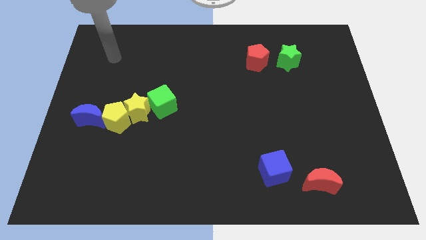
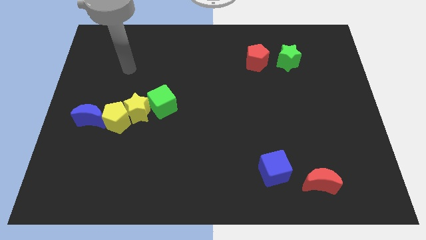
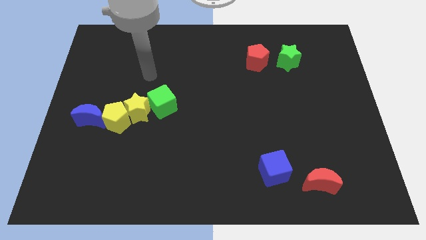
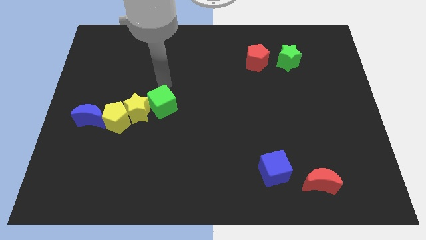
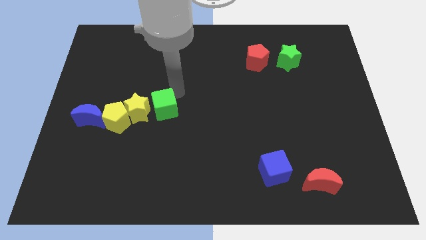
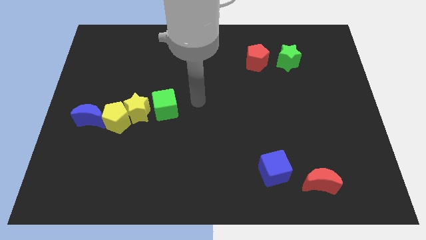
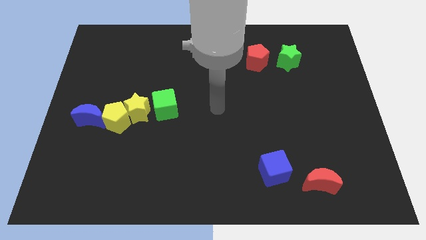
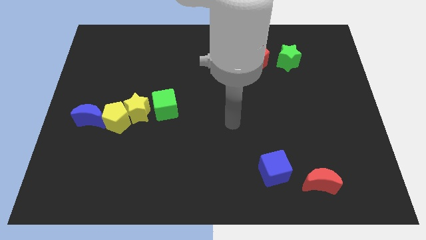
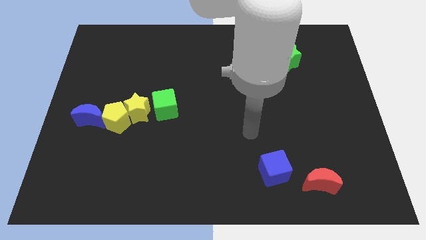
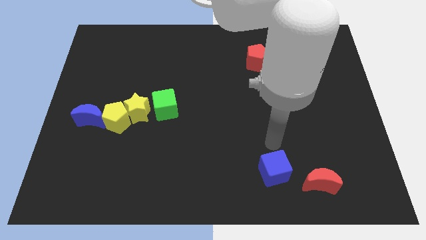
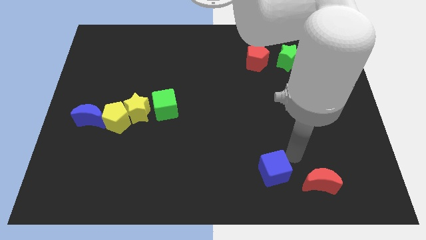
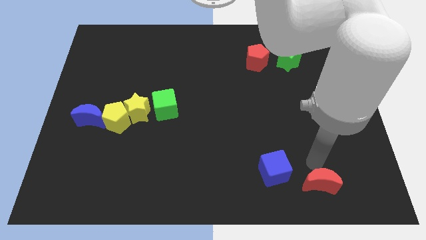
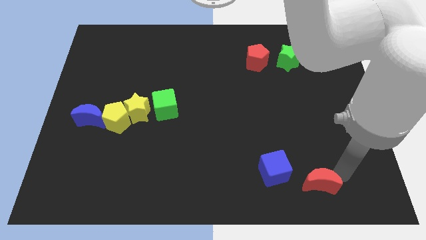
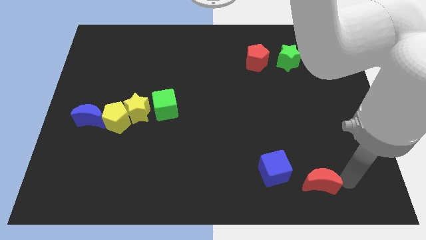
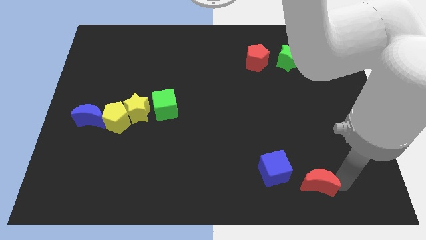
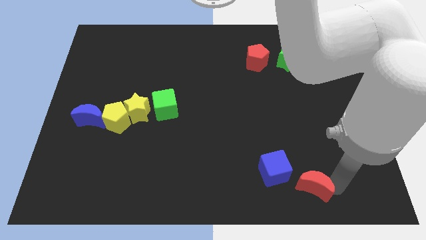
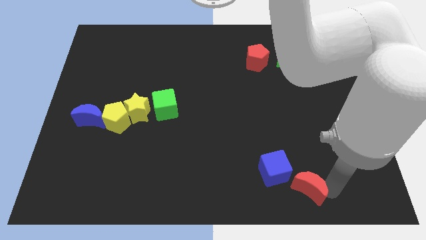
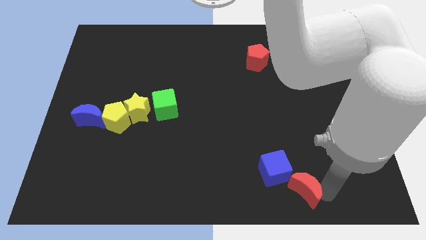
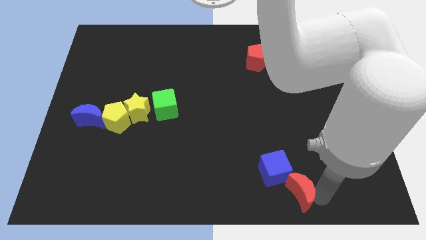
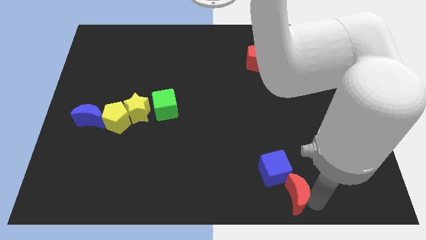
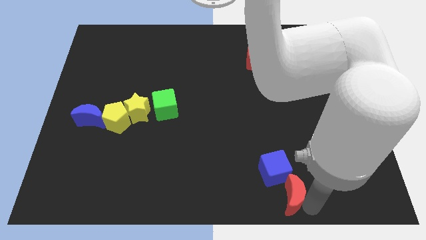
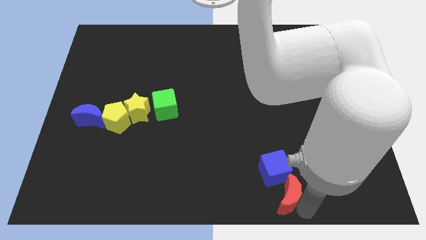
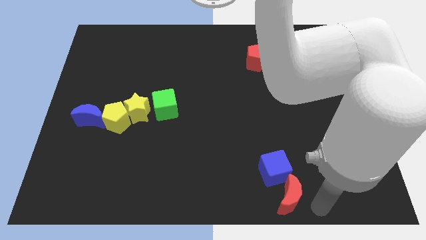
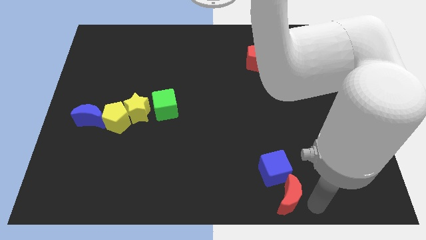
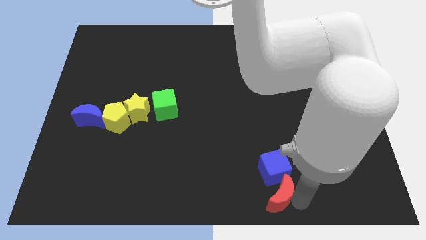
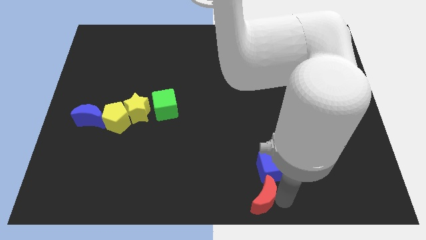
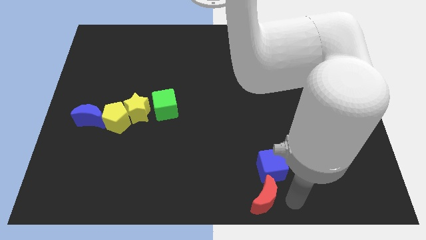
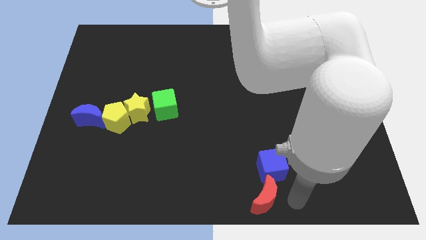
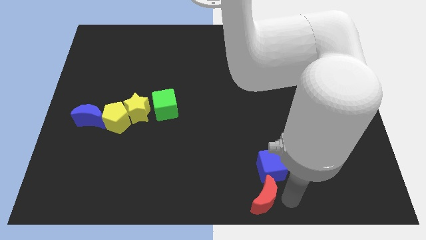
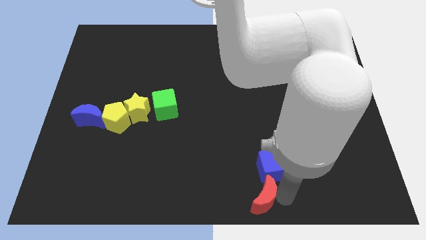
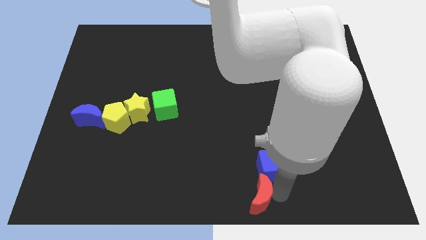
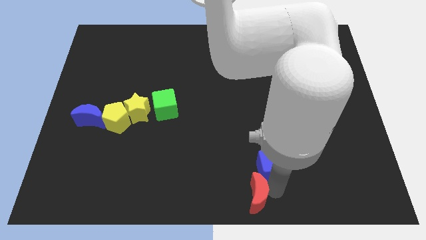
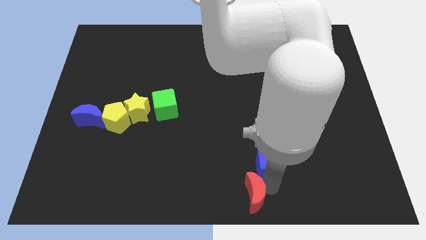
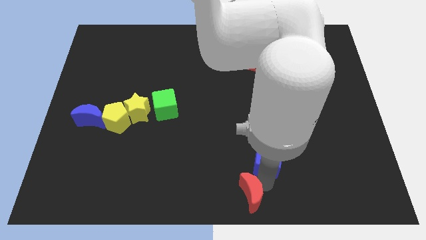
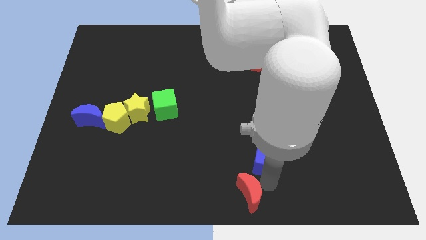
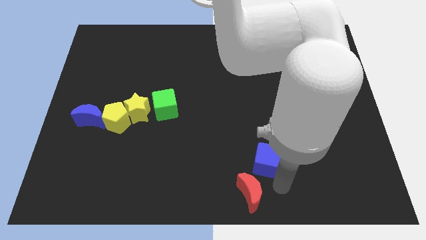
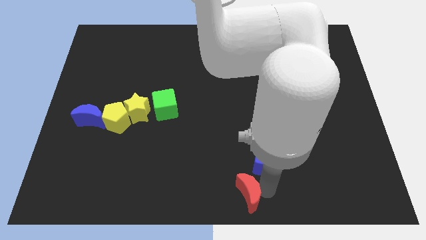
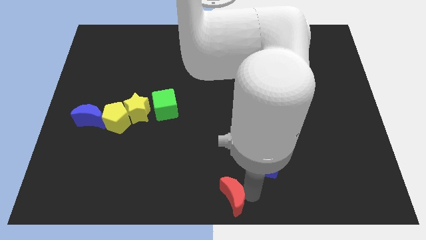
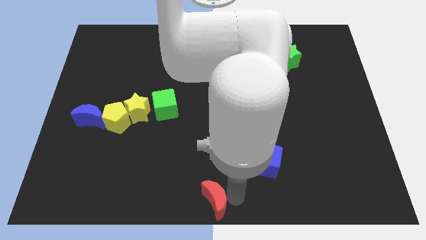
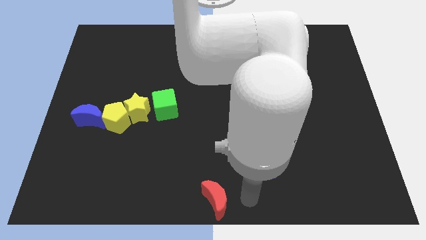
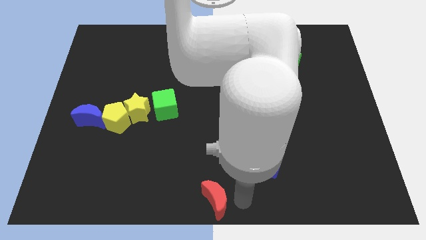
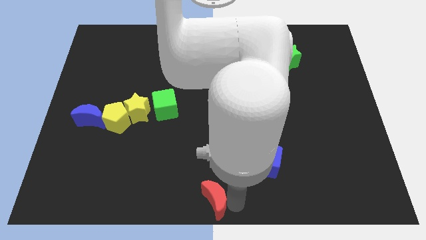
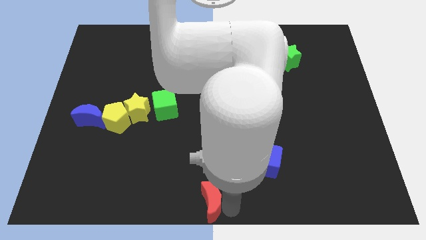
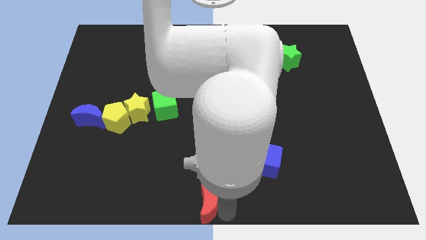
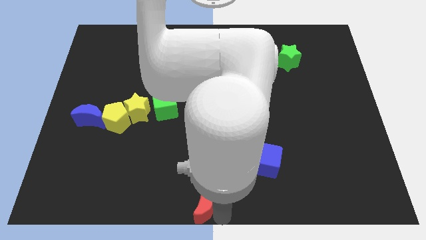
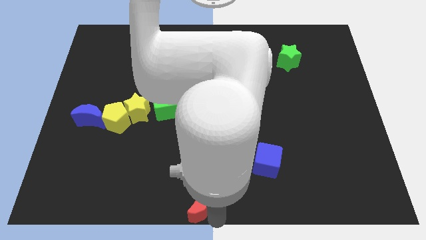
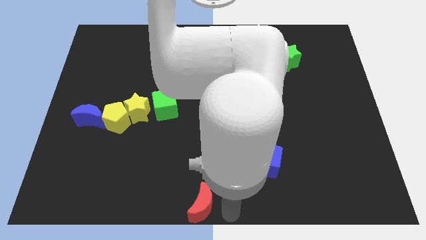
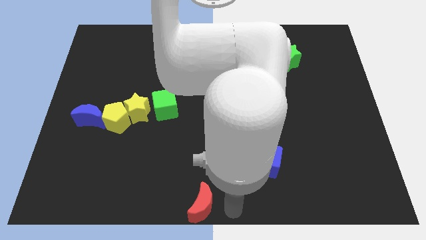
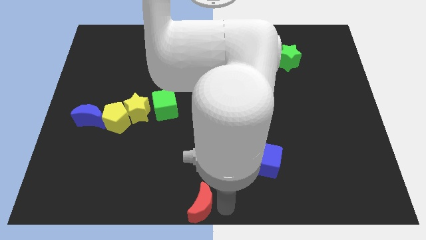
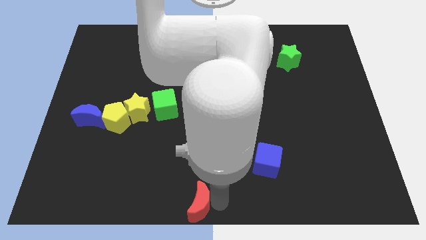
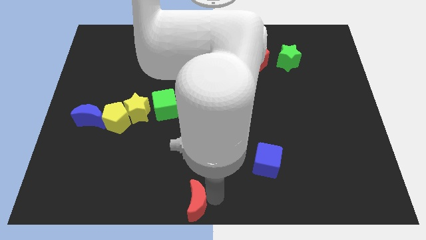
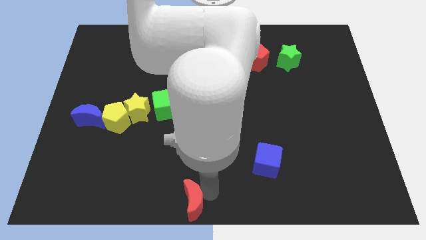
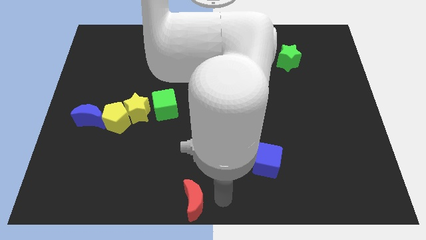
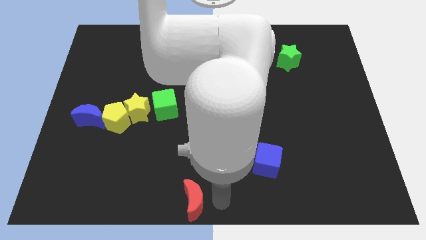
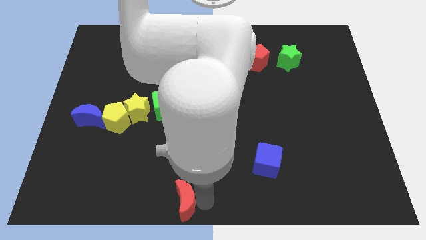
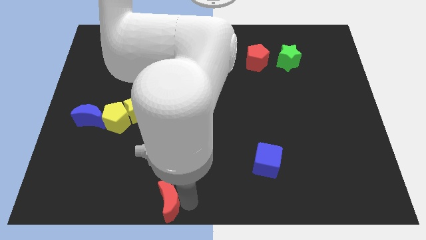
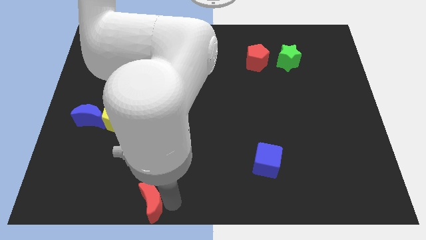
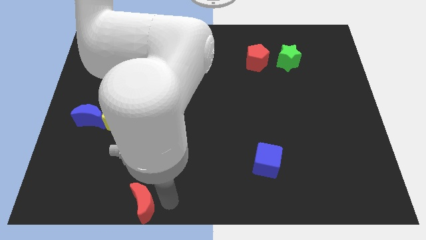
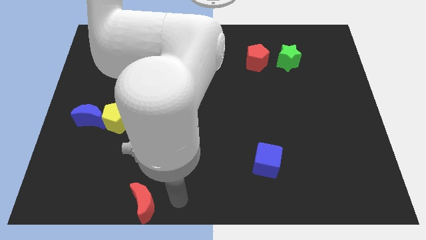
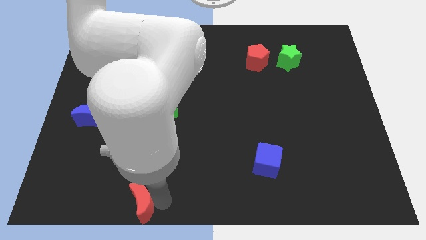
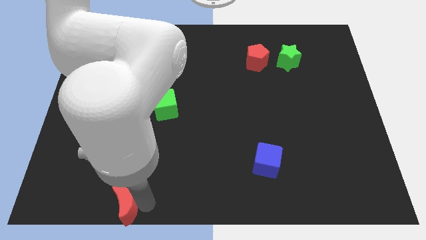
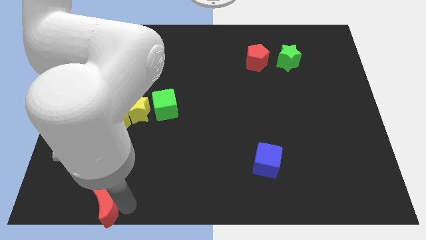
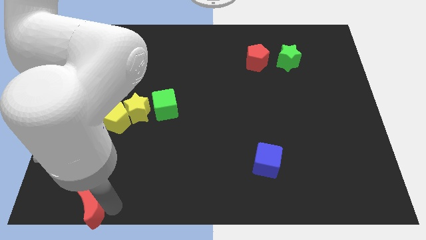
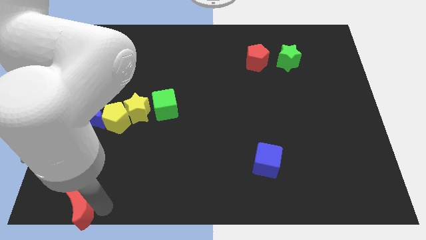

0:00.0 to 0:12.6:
slide the red moon to the bottom left

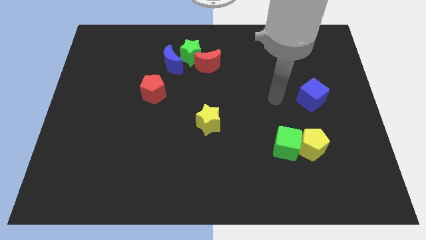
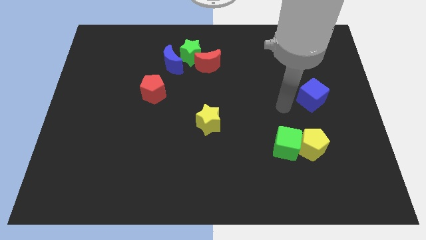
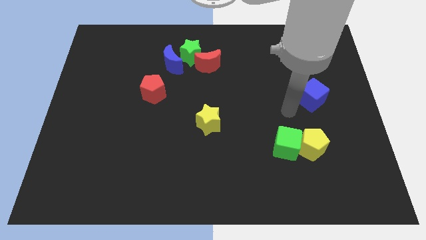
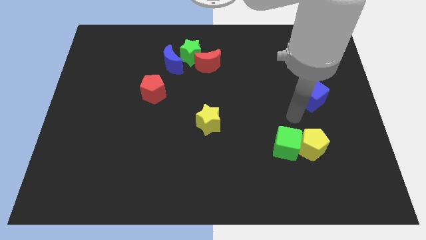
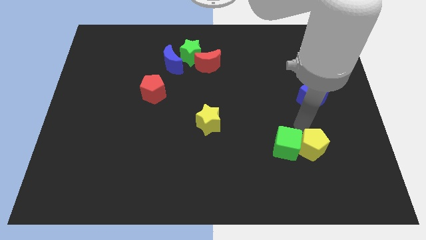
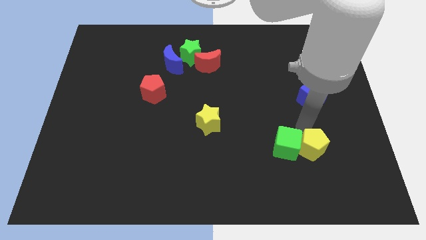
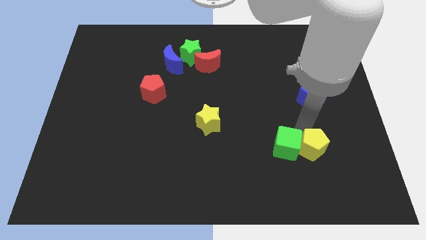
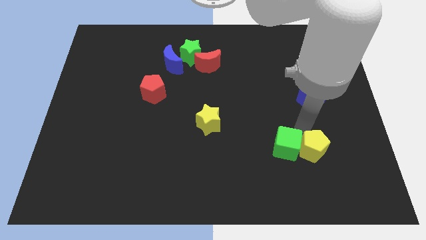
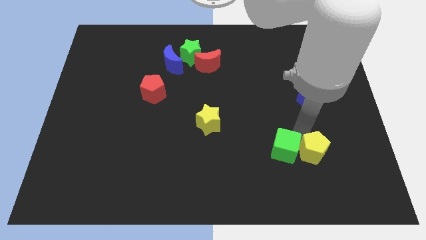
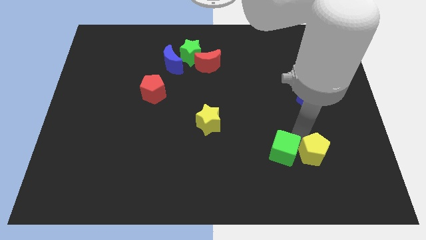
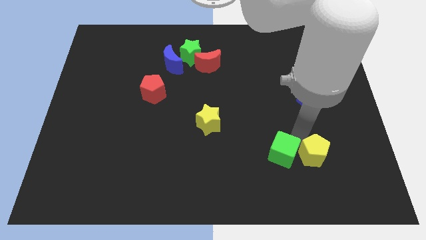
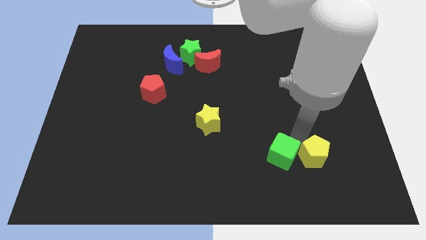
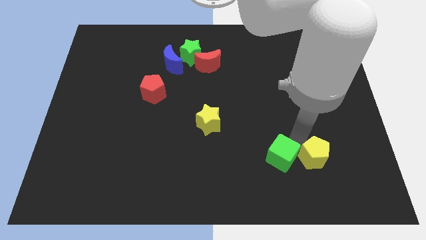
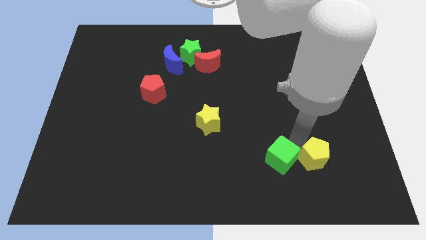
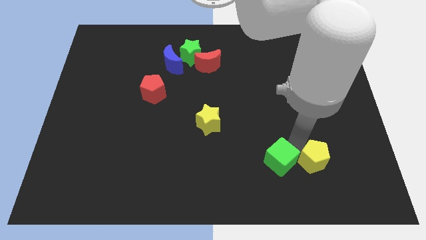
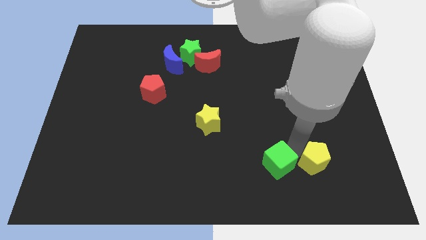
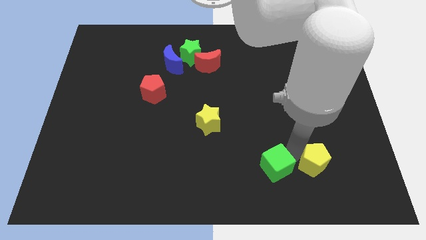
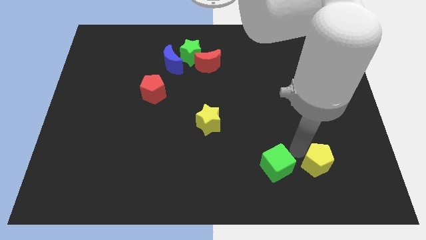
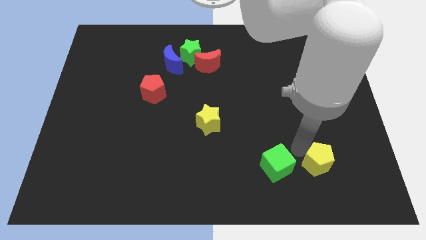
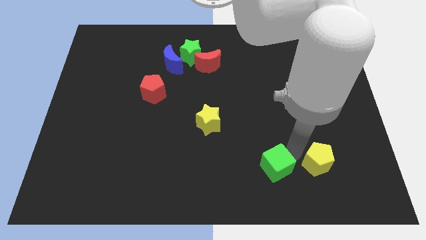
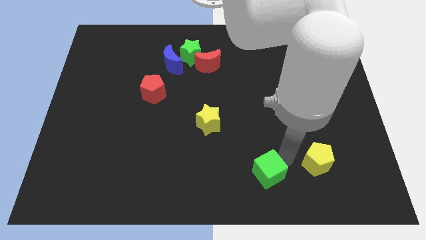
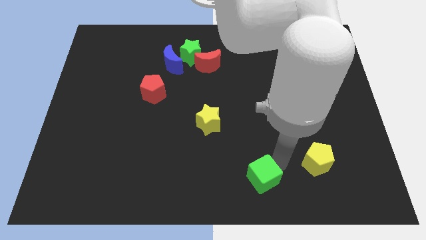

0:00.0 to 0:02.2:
put the green cube to the bottom
